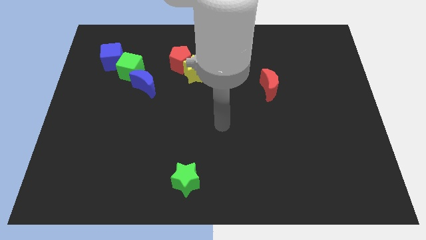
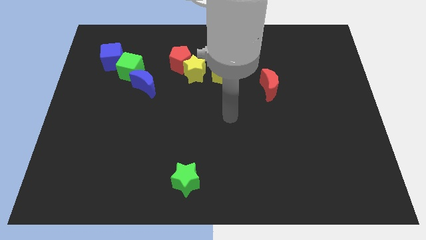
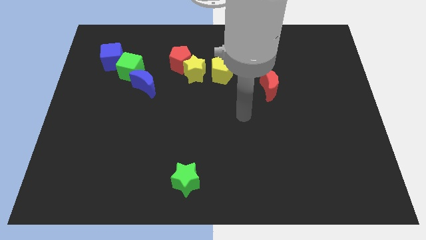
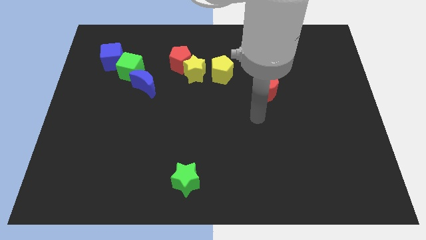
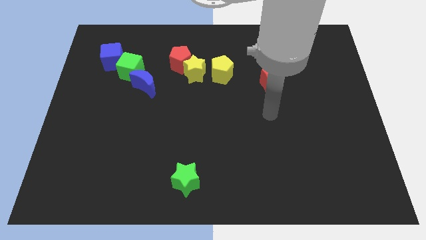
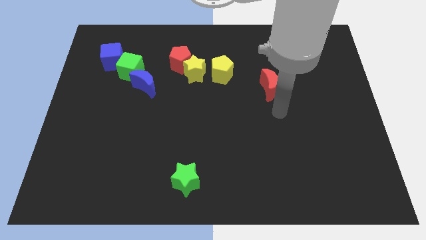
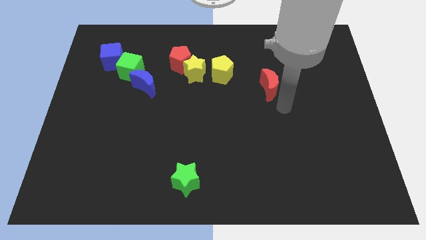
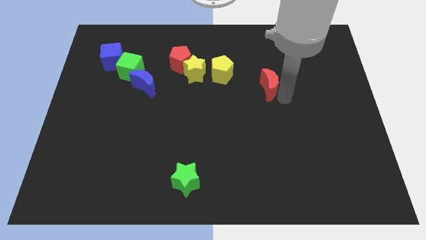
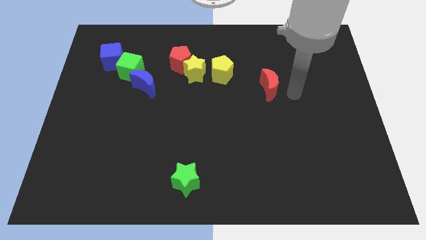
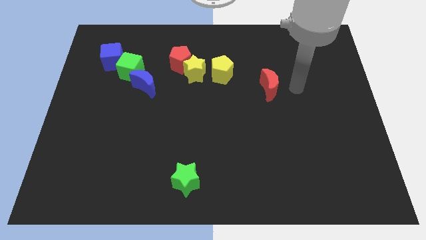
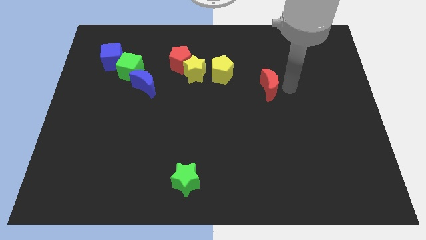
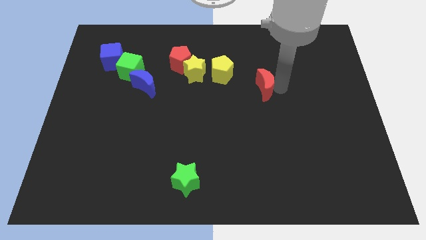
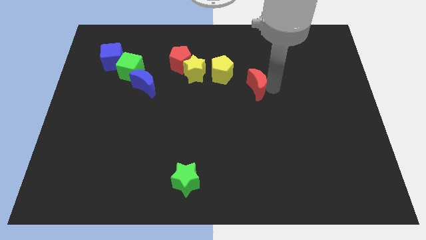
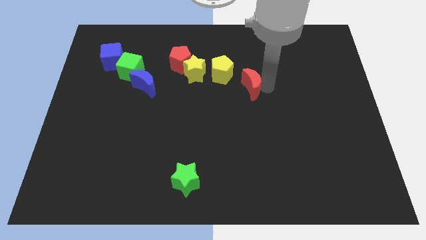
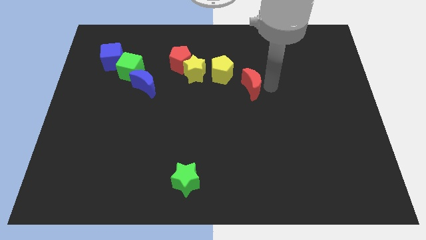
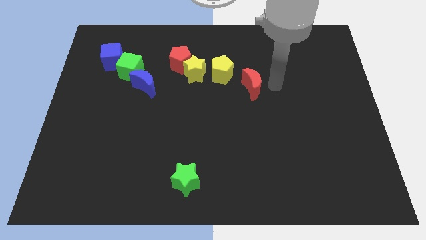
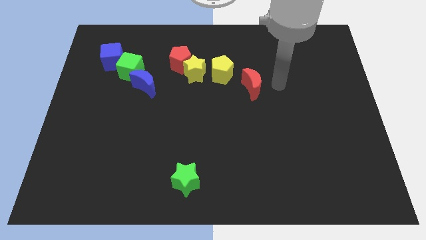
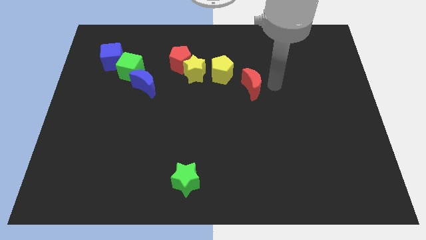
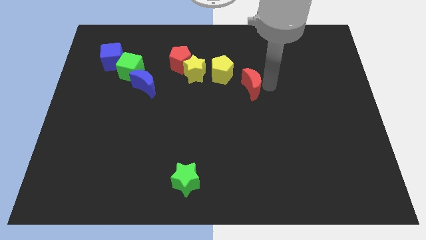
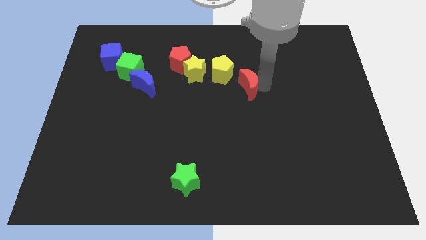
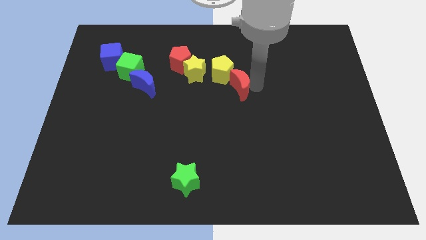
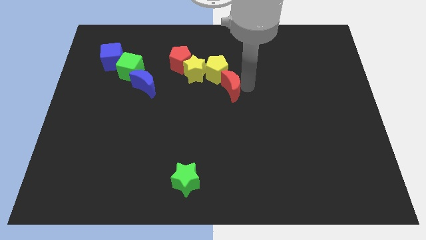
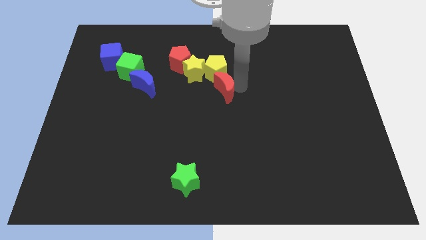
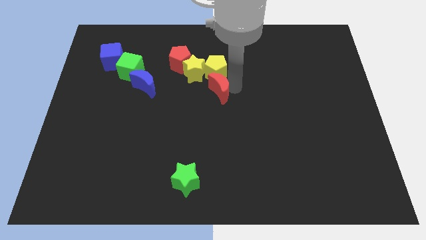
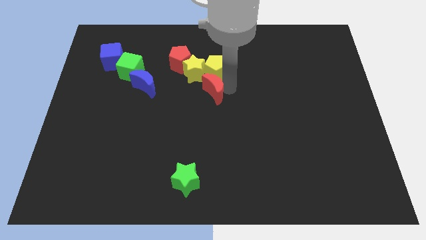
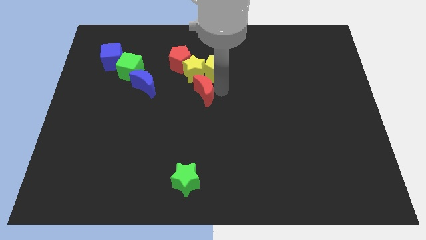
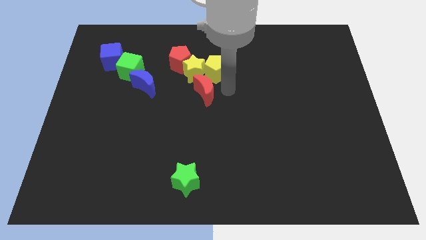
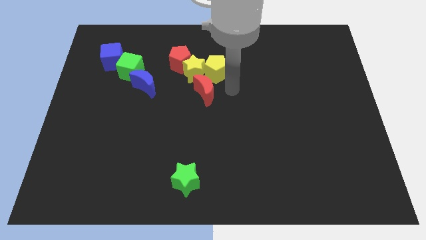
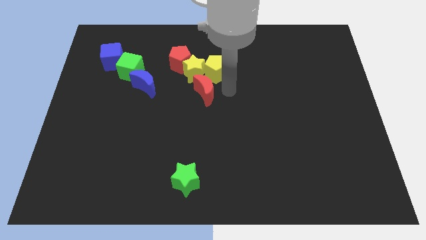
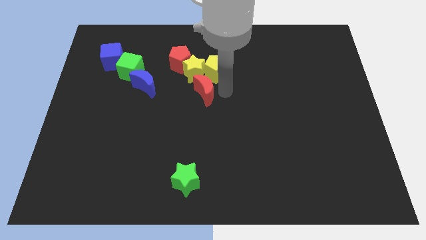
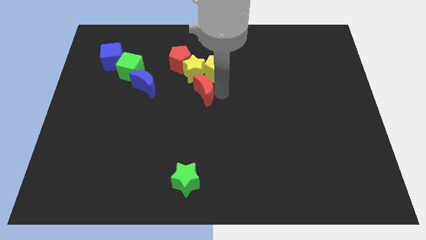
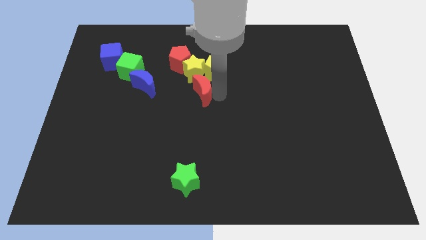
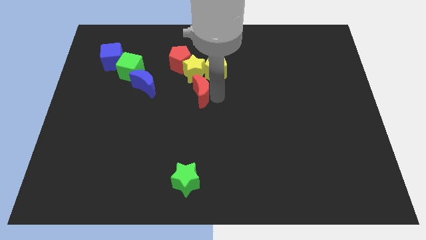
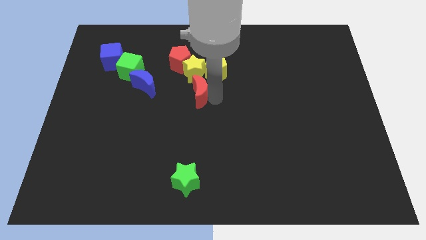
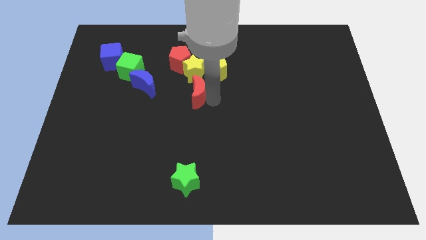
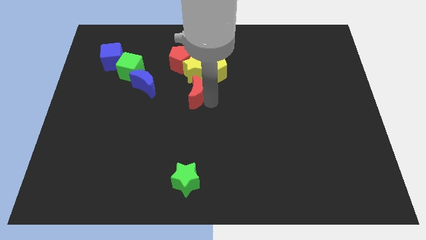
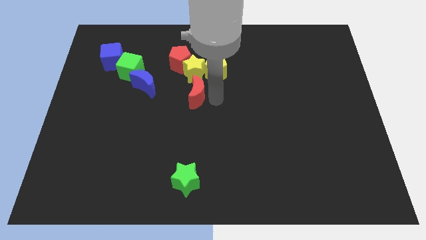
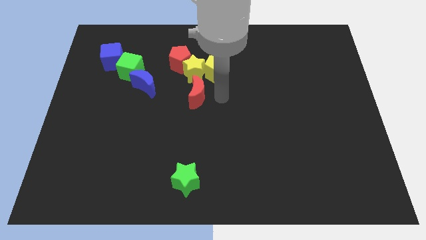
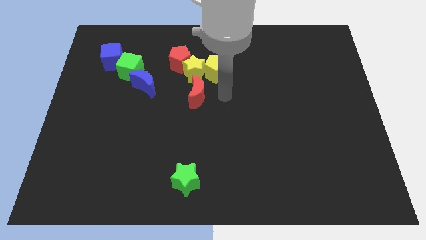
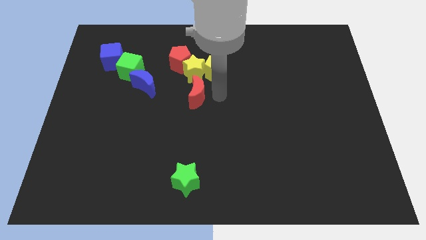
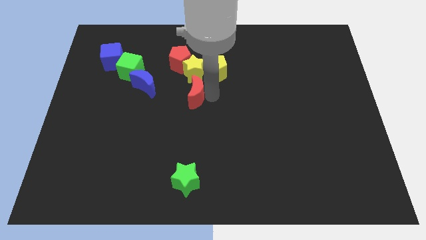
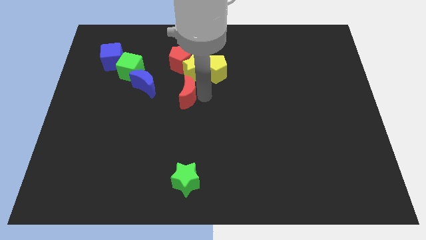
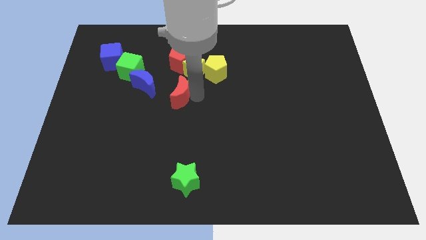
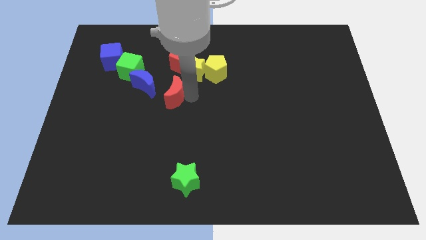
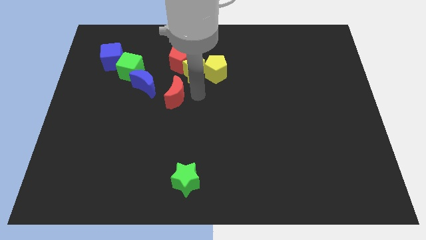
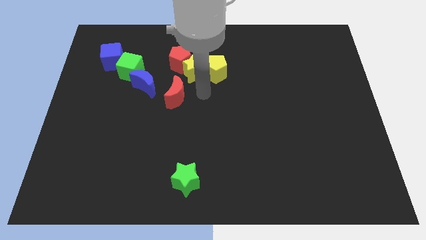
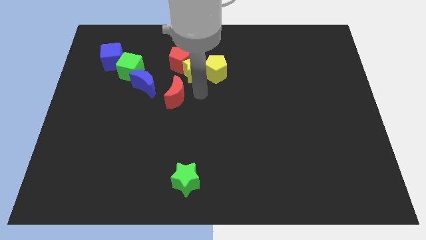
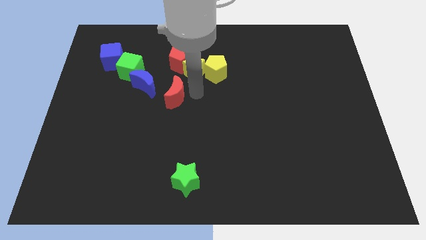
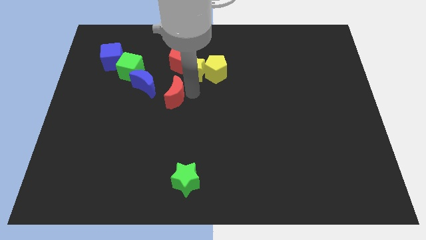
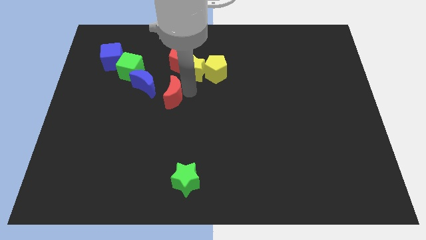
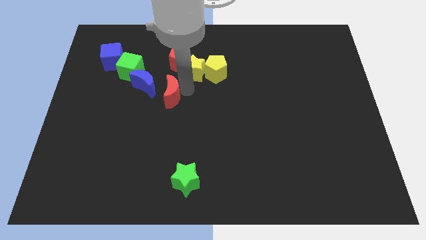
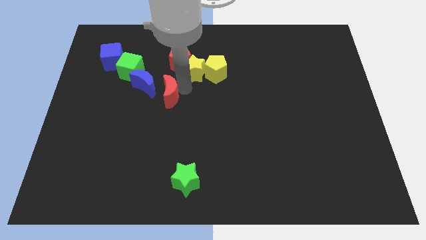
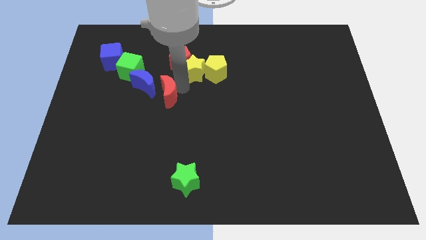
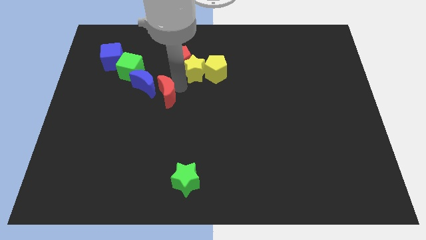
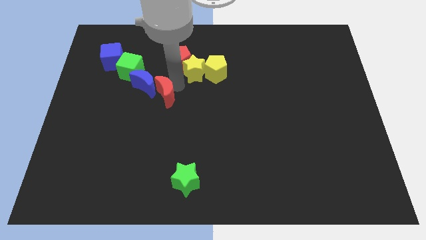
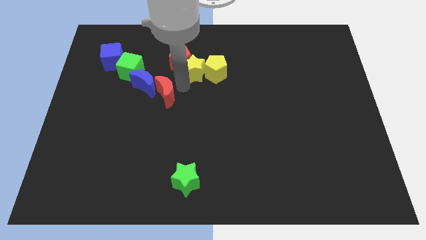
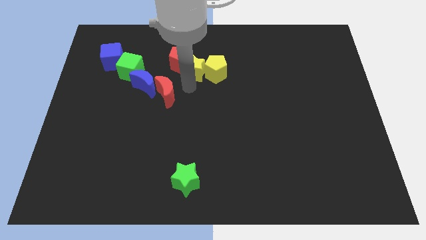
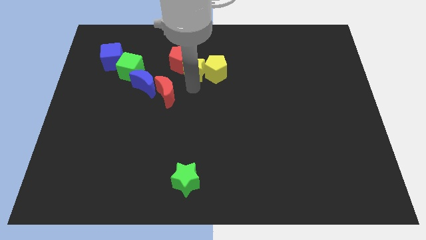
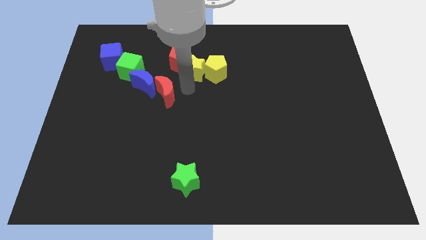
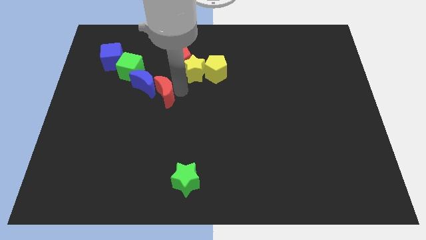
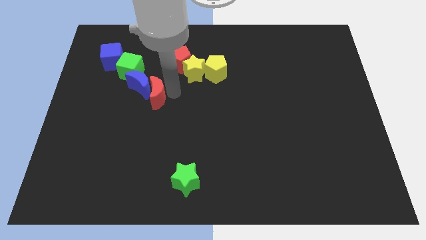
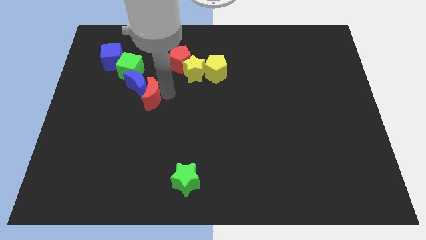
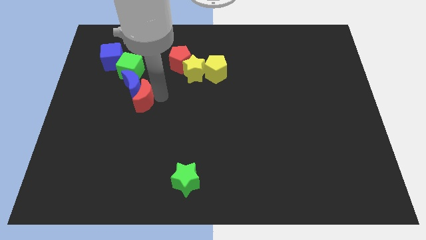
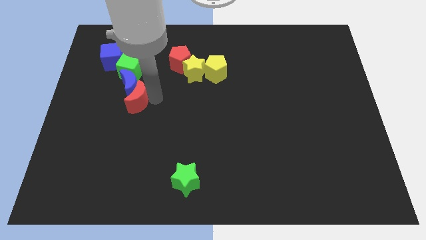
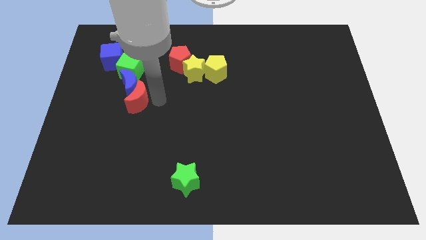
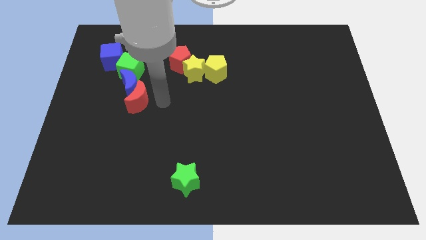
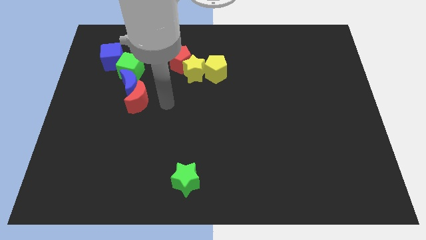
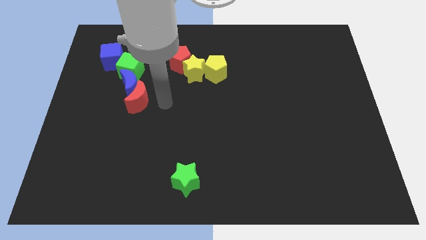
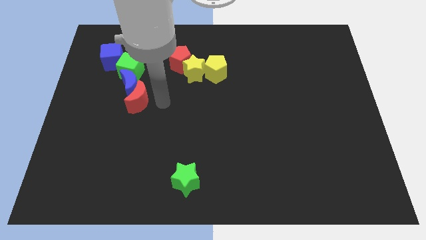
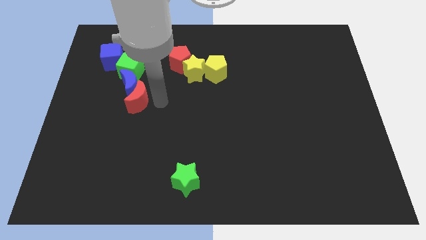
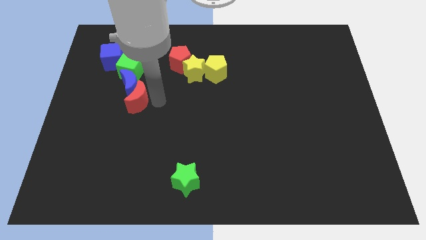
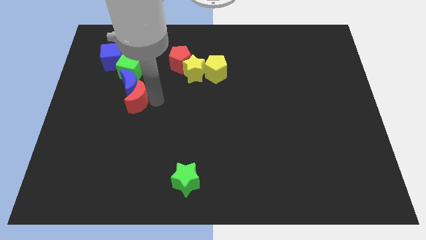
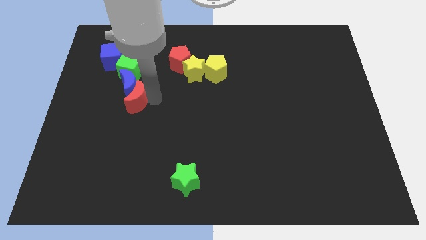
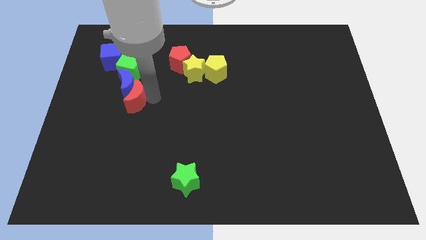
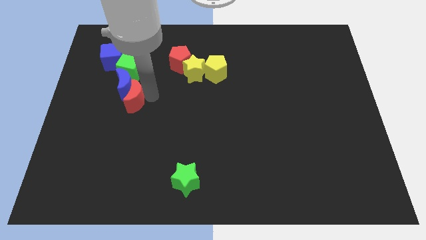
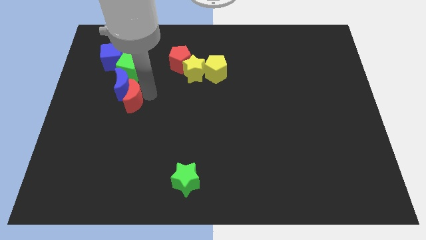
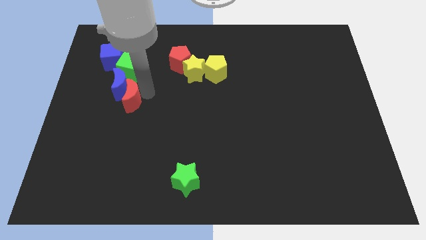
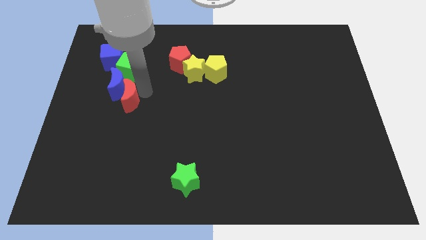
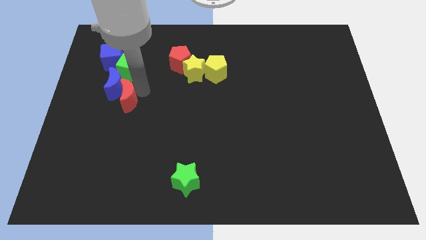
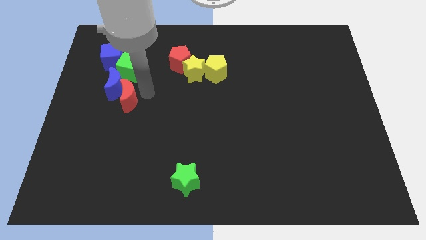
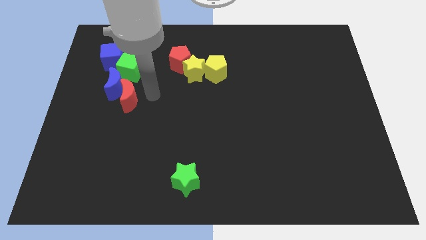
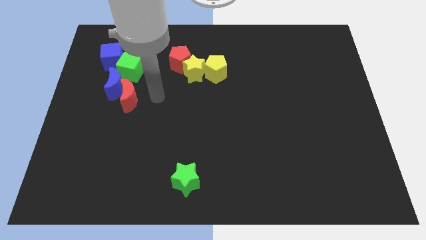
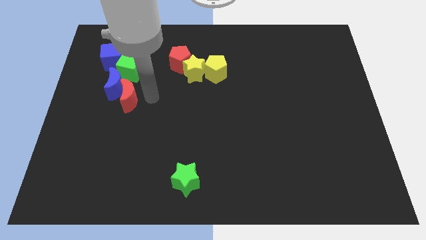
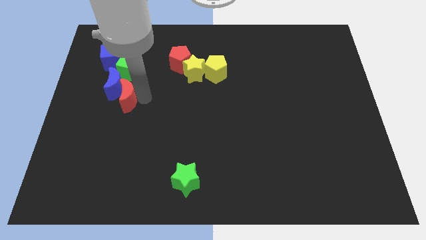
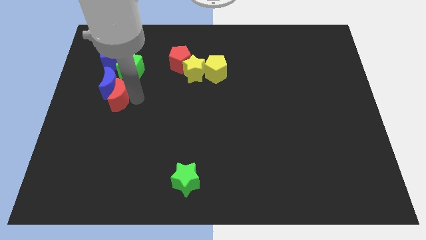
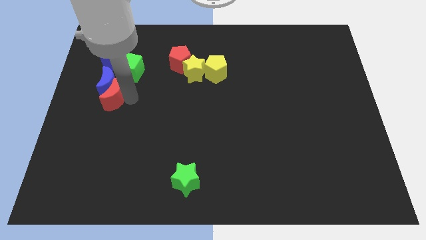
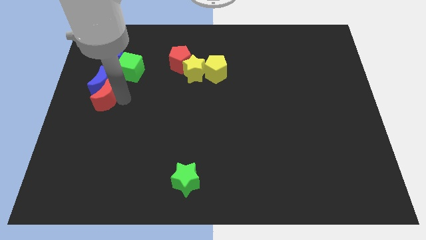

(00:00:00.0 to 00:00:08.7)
slide the red moon to the center left
